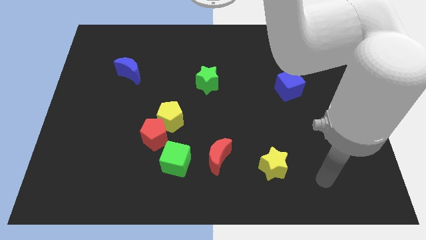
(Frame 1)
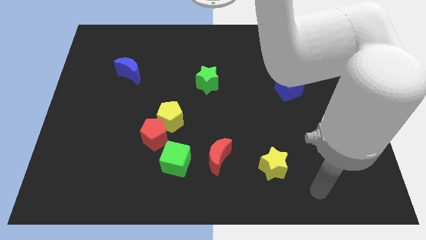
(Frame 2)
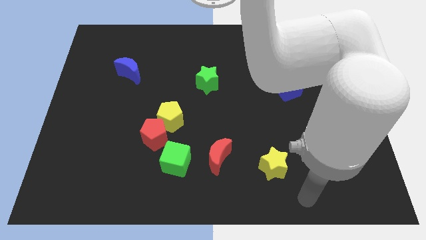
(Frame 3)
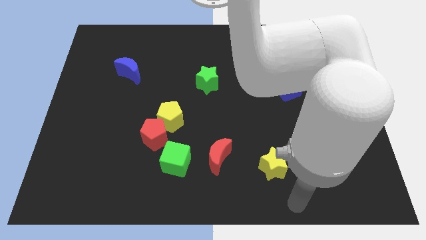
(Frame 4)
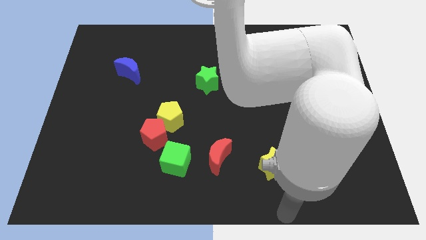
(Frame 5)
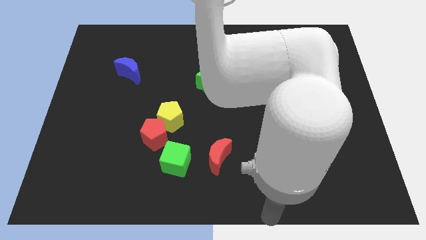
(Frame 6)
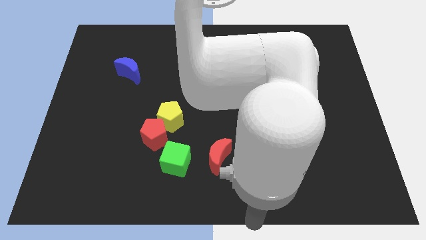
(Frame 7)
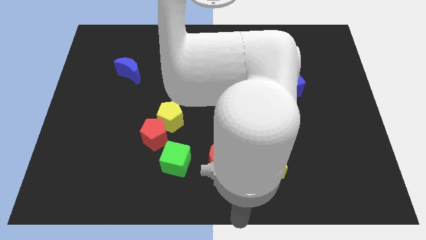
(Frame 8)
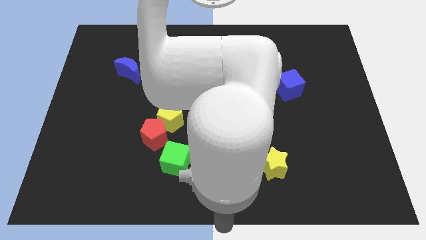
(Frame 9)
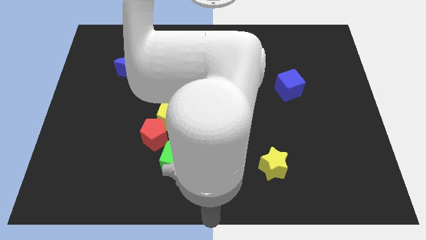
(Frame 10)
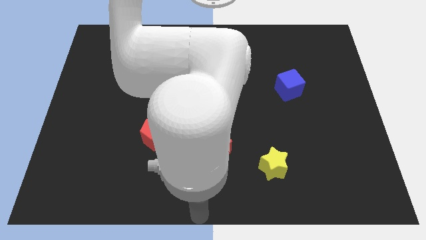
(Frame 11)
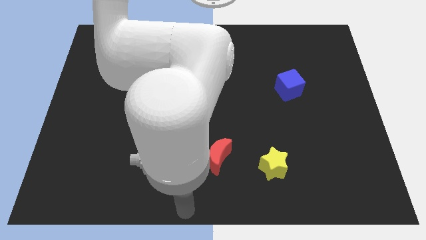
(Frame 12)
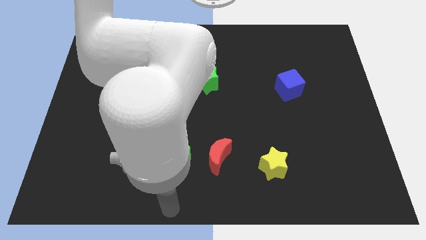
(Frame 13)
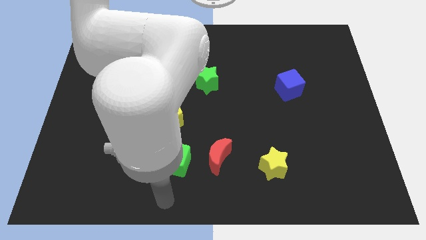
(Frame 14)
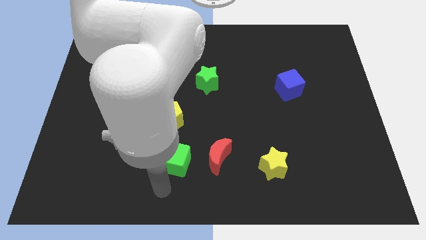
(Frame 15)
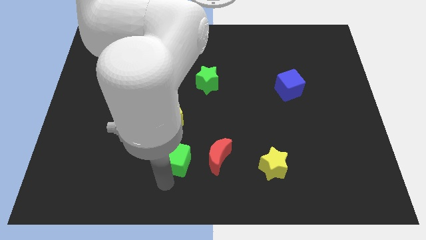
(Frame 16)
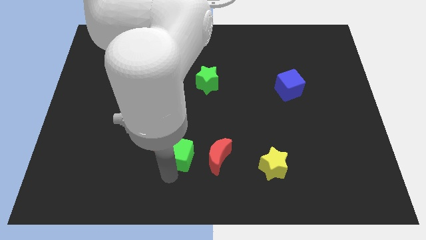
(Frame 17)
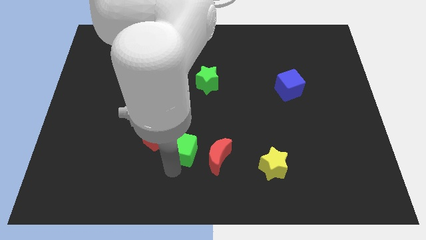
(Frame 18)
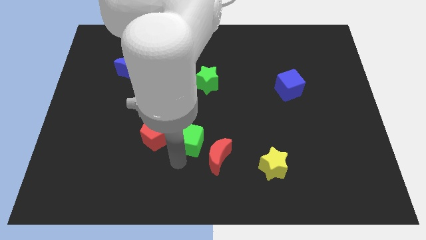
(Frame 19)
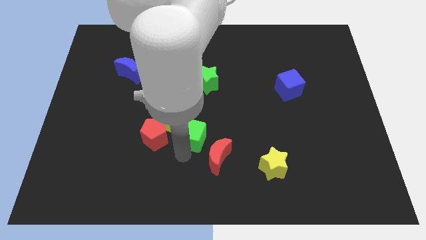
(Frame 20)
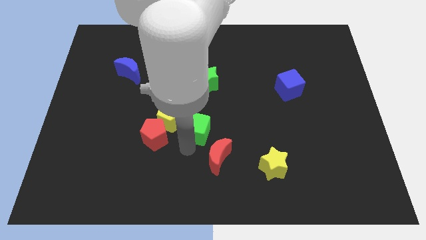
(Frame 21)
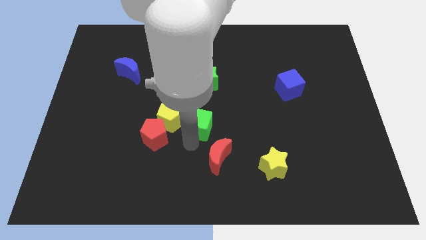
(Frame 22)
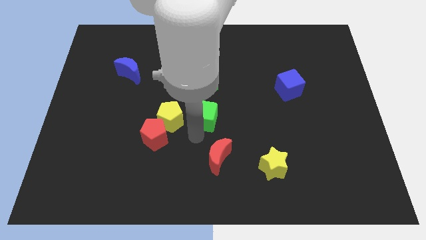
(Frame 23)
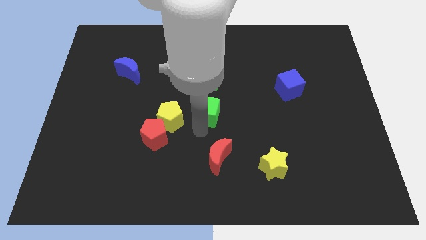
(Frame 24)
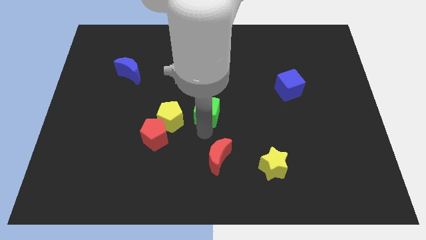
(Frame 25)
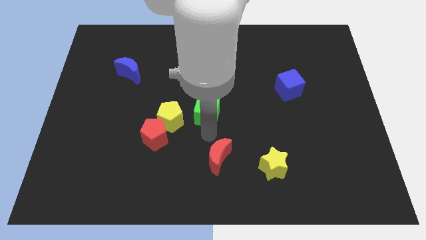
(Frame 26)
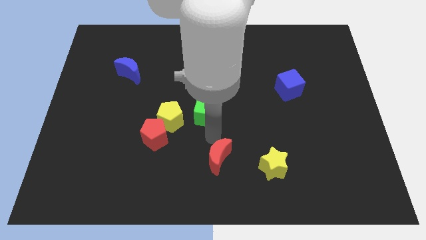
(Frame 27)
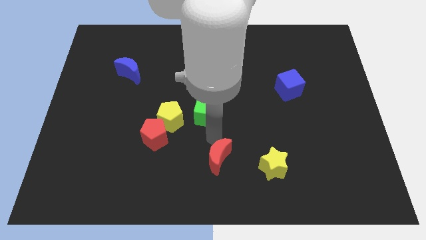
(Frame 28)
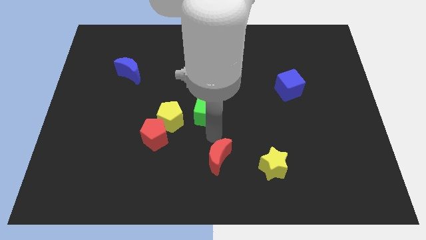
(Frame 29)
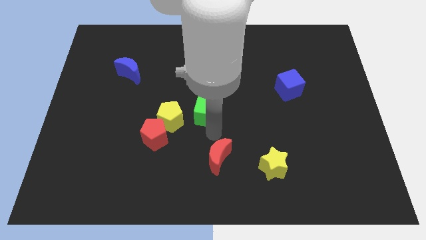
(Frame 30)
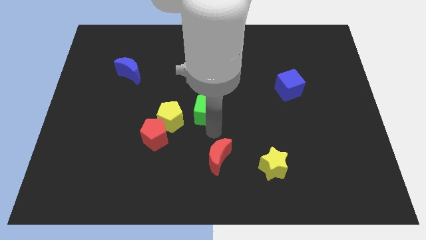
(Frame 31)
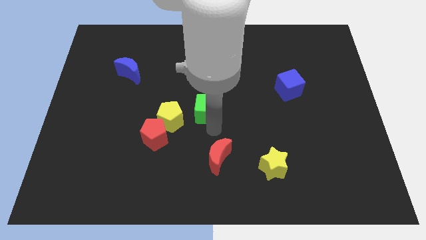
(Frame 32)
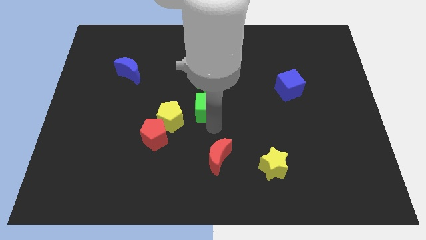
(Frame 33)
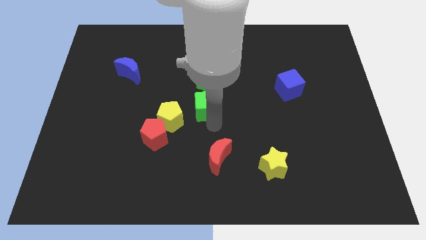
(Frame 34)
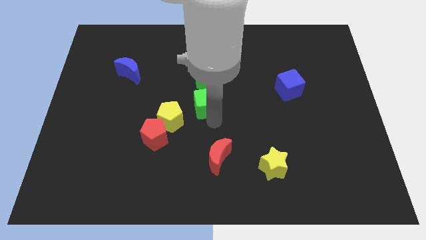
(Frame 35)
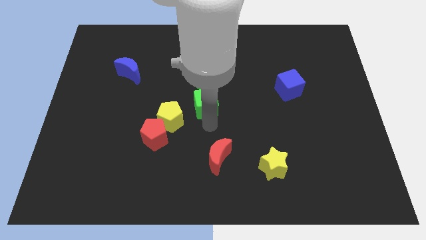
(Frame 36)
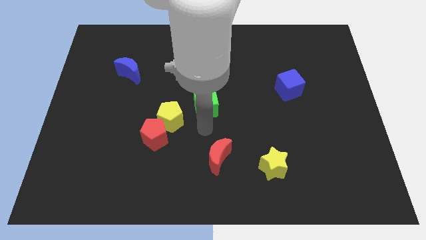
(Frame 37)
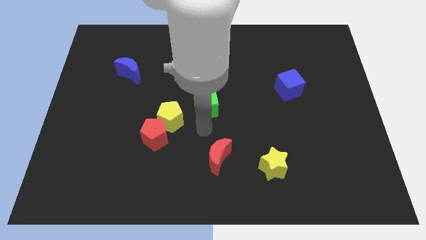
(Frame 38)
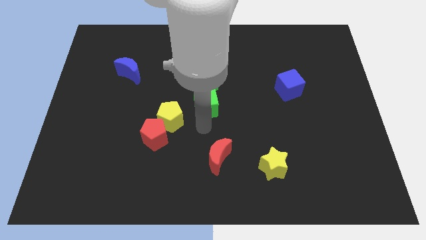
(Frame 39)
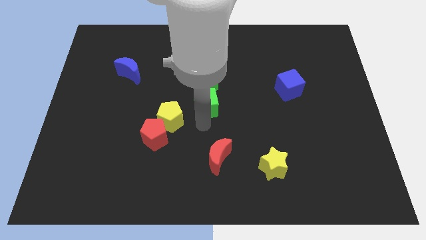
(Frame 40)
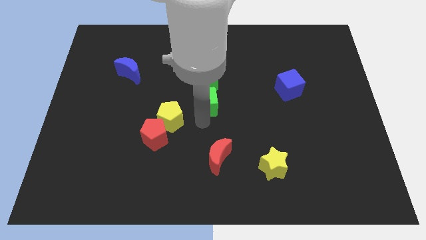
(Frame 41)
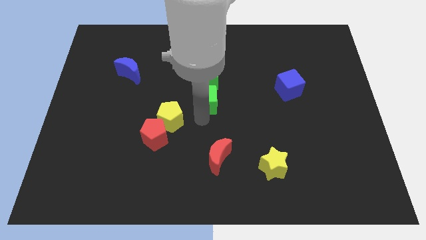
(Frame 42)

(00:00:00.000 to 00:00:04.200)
slide the green cube next to the green star

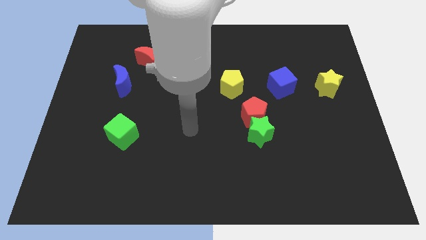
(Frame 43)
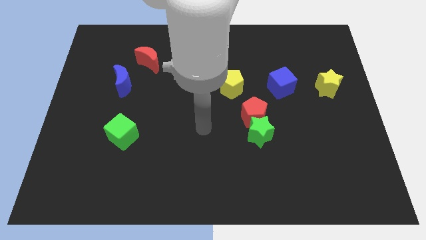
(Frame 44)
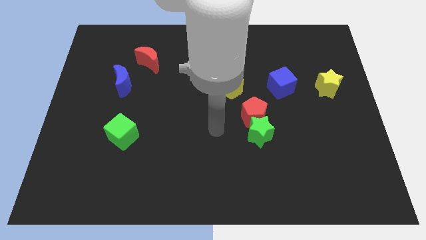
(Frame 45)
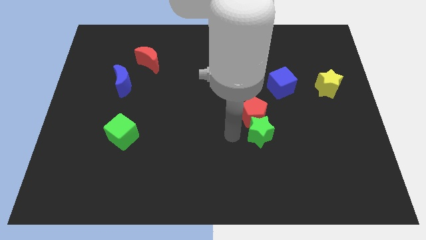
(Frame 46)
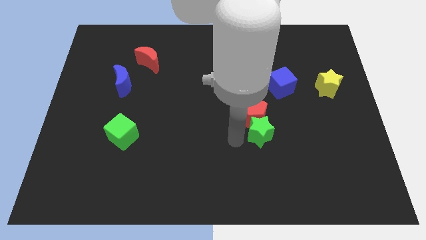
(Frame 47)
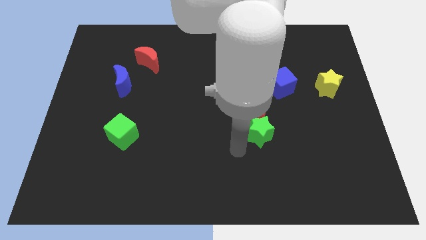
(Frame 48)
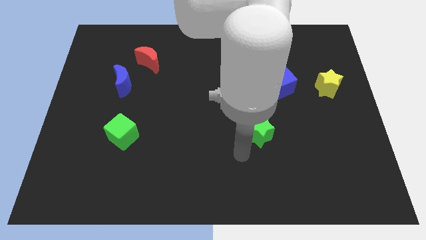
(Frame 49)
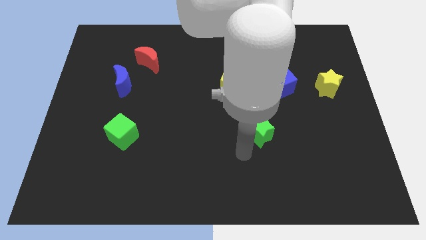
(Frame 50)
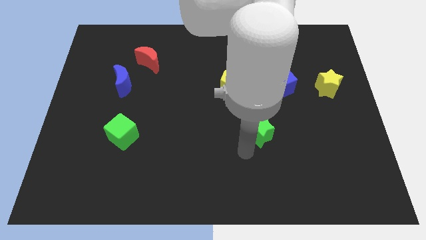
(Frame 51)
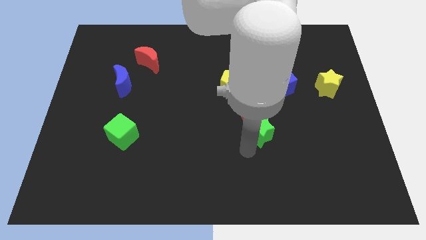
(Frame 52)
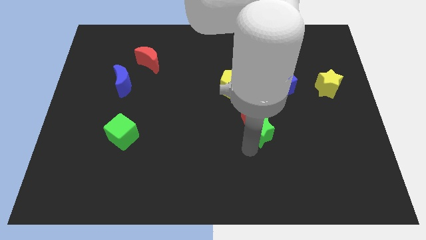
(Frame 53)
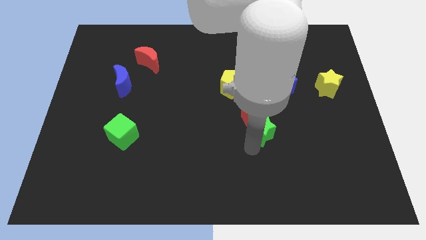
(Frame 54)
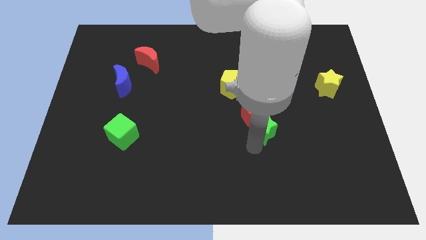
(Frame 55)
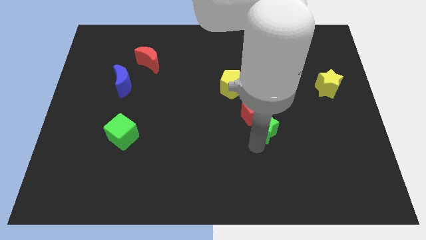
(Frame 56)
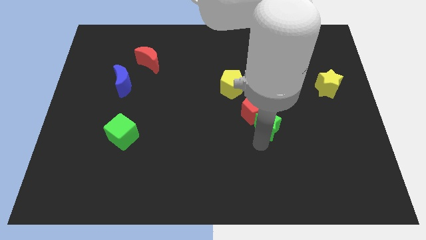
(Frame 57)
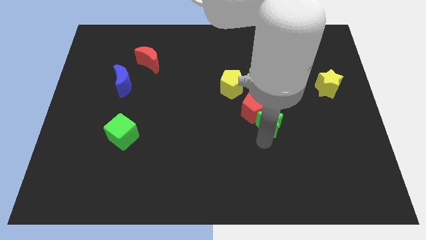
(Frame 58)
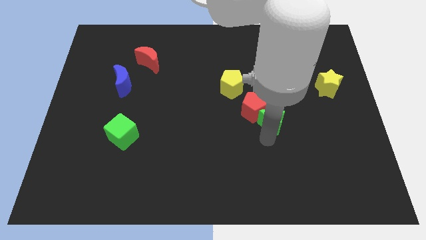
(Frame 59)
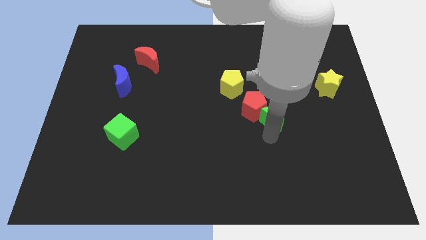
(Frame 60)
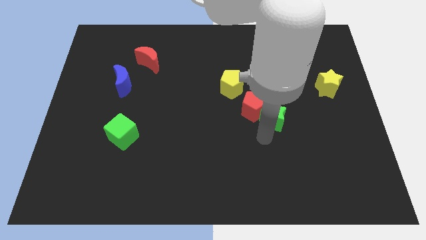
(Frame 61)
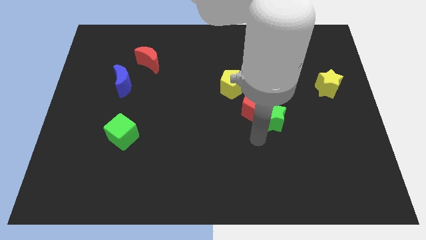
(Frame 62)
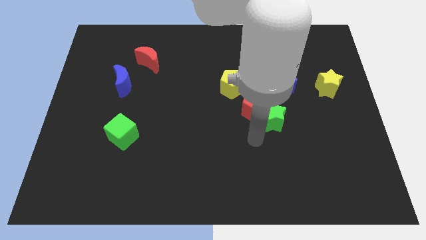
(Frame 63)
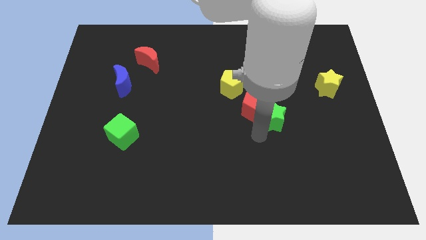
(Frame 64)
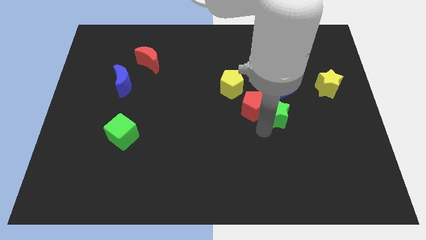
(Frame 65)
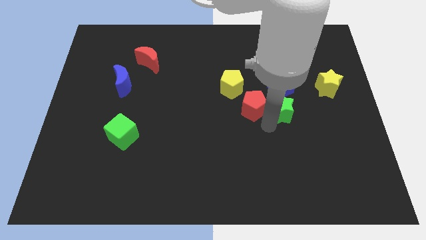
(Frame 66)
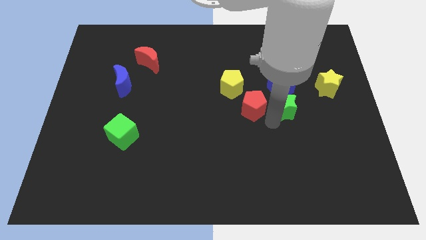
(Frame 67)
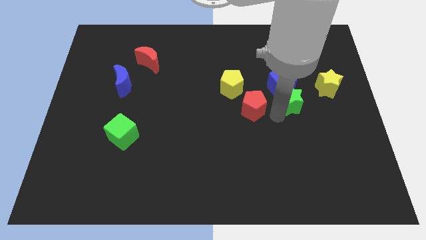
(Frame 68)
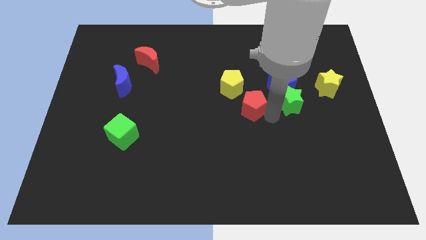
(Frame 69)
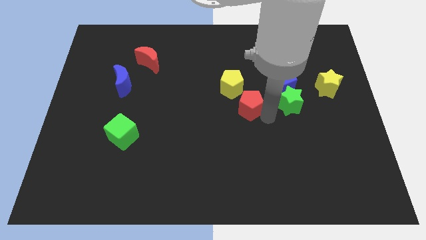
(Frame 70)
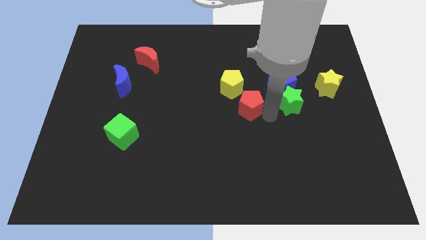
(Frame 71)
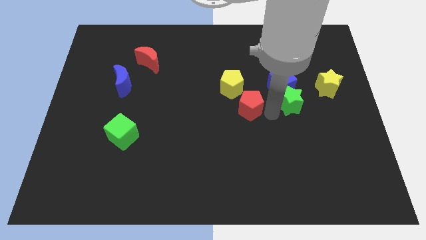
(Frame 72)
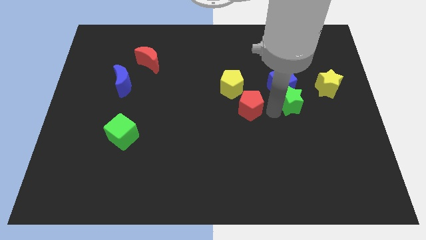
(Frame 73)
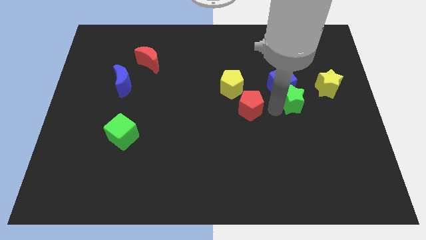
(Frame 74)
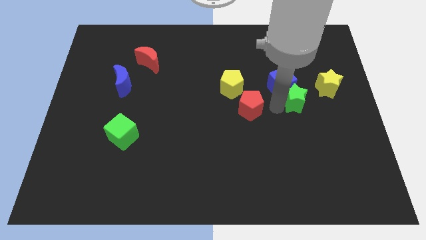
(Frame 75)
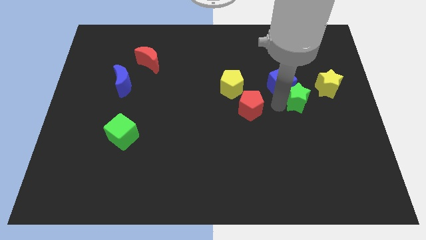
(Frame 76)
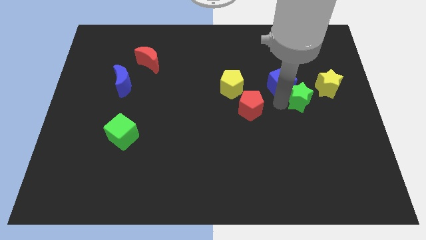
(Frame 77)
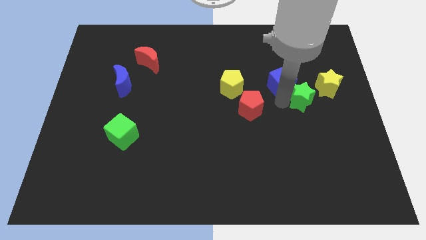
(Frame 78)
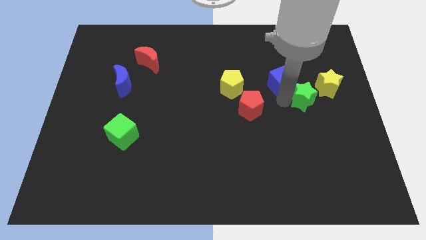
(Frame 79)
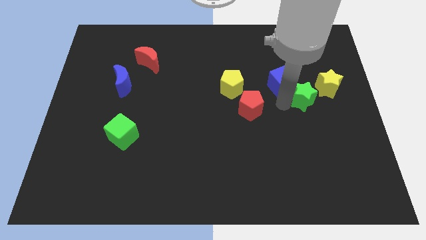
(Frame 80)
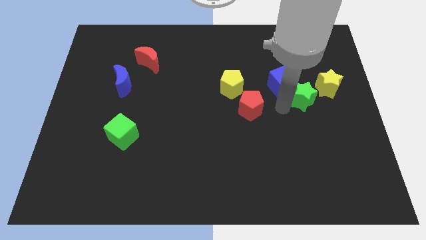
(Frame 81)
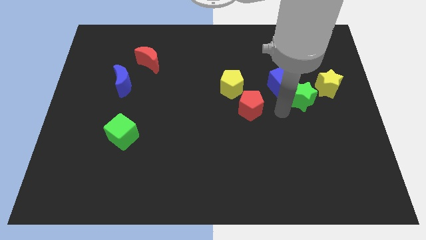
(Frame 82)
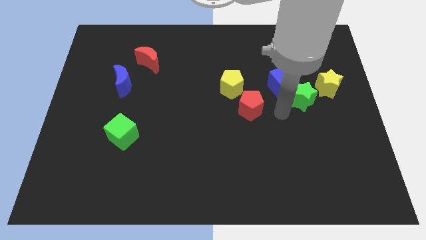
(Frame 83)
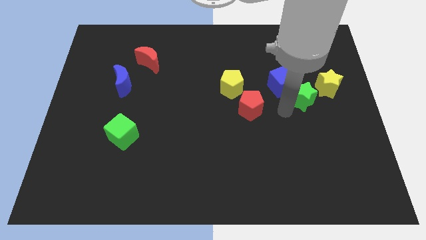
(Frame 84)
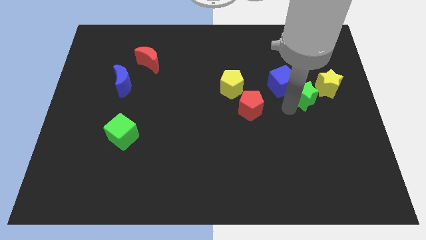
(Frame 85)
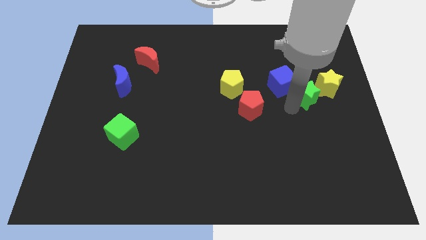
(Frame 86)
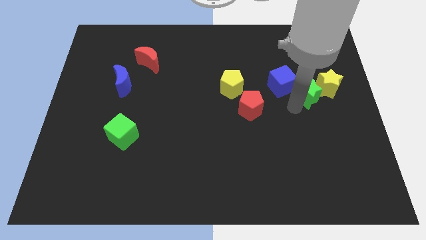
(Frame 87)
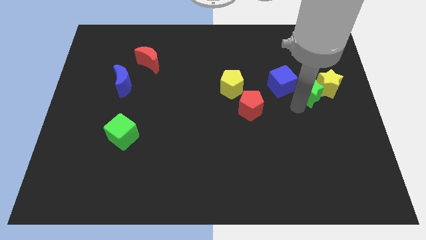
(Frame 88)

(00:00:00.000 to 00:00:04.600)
move the green star close to the yellow star
